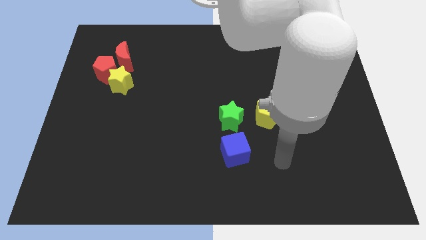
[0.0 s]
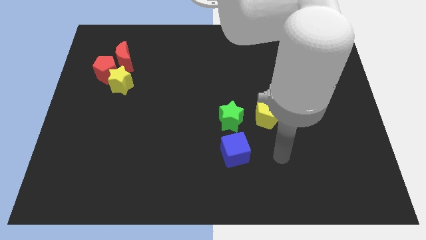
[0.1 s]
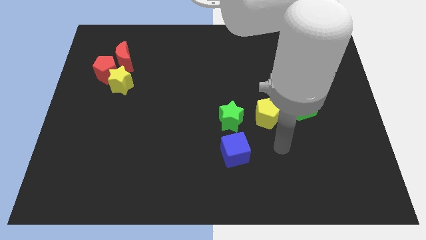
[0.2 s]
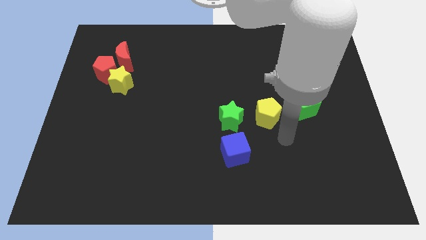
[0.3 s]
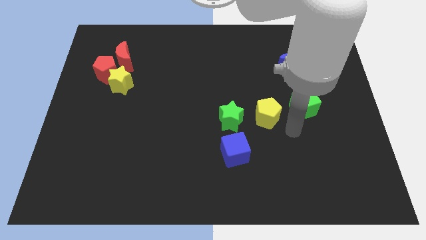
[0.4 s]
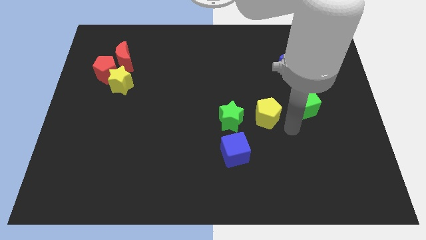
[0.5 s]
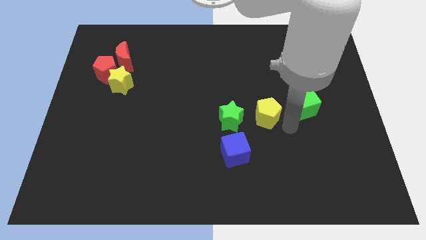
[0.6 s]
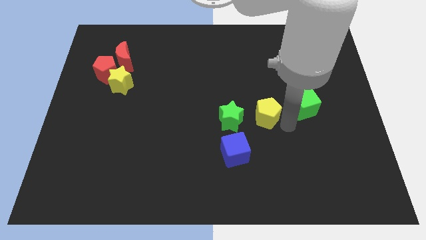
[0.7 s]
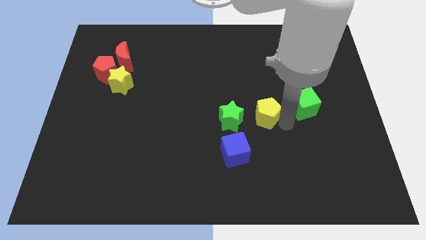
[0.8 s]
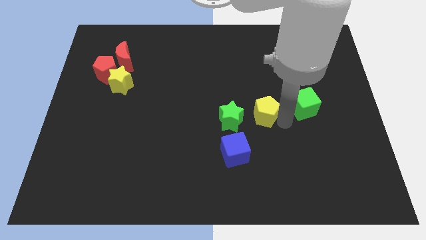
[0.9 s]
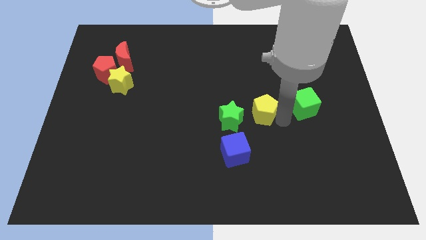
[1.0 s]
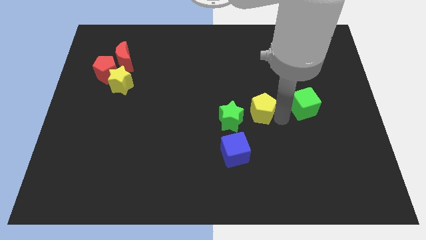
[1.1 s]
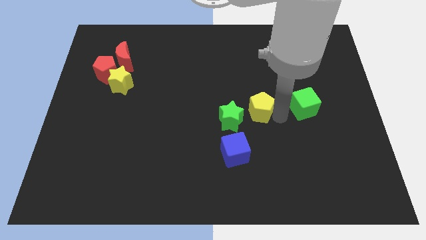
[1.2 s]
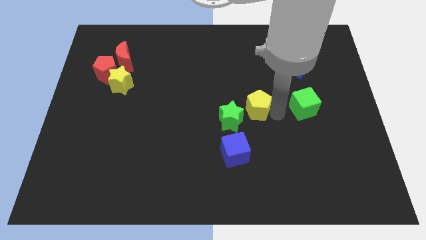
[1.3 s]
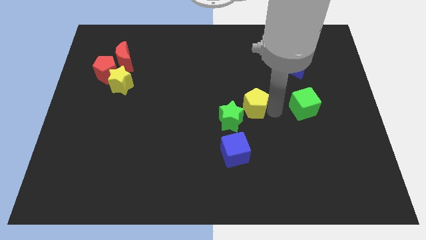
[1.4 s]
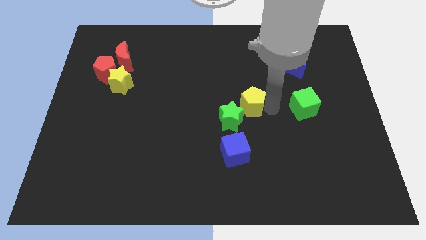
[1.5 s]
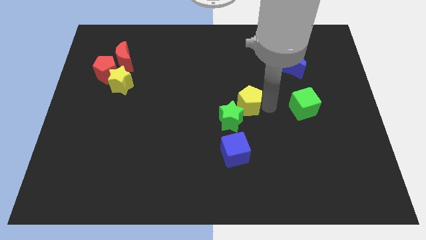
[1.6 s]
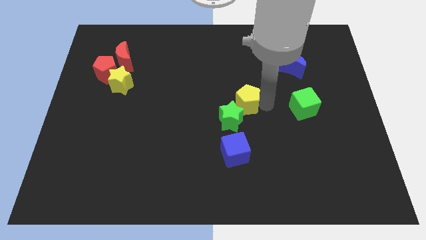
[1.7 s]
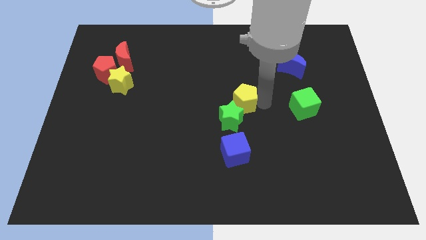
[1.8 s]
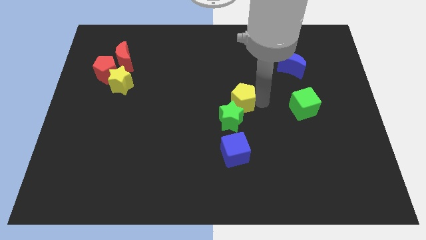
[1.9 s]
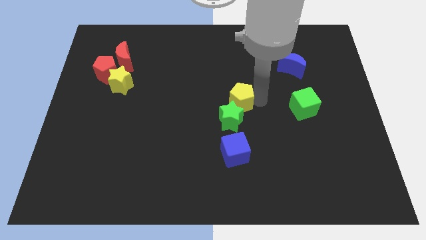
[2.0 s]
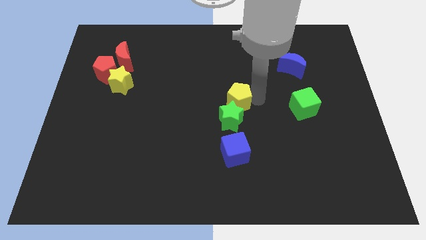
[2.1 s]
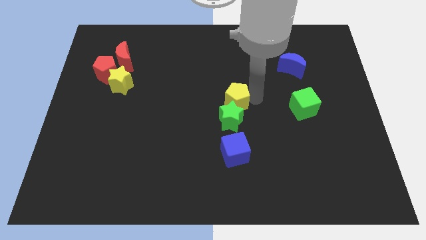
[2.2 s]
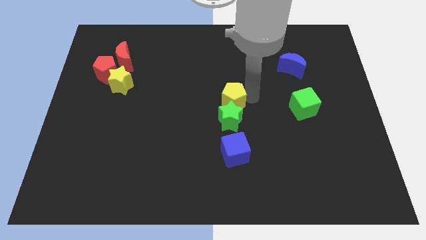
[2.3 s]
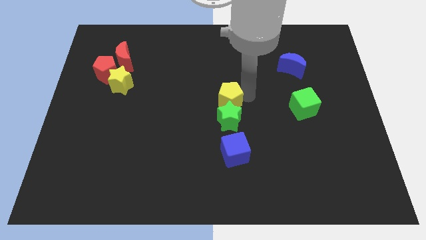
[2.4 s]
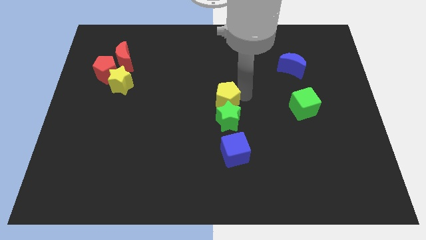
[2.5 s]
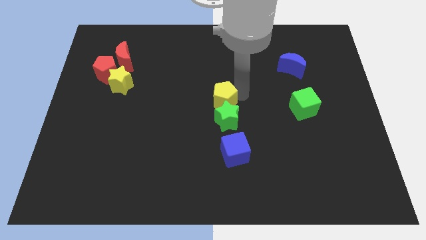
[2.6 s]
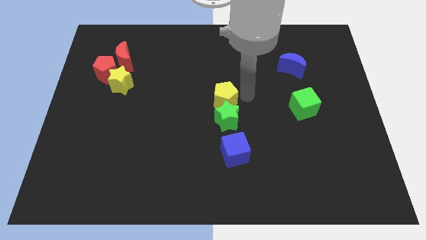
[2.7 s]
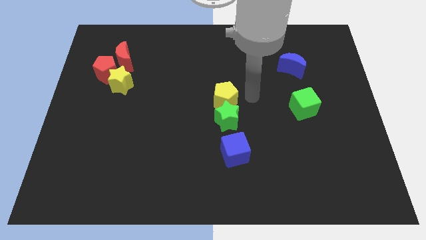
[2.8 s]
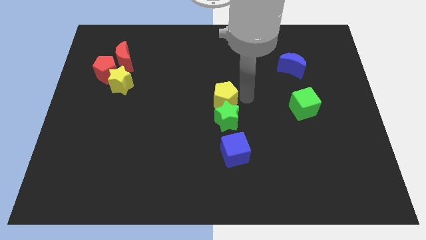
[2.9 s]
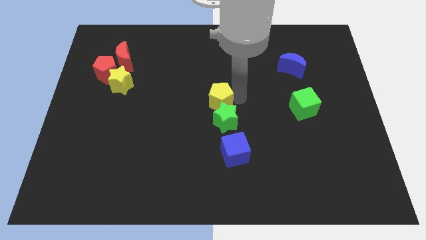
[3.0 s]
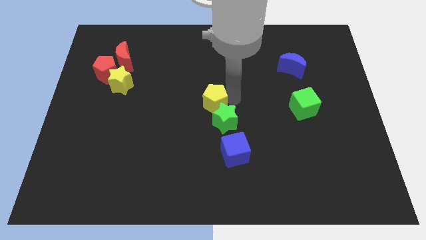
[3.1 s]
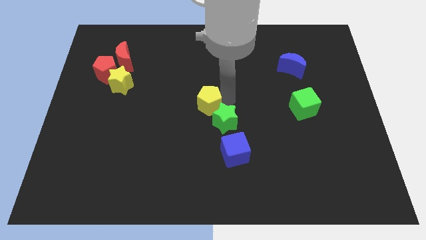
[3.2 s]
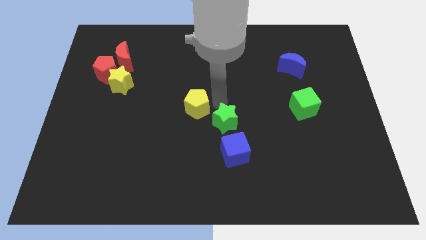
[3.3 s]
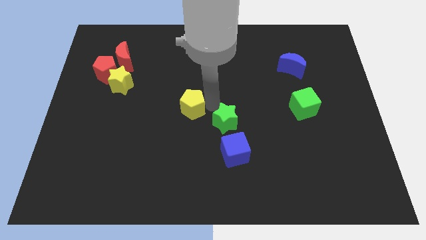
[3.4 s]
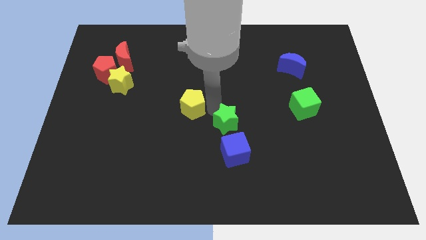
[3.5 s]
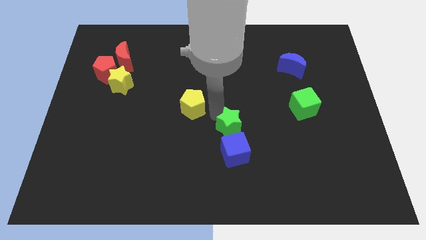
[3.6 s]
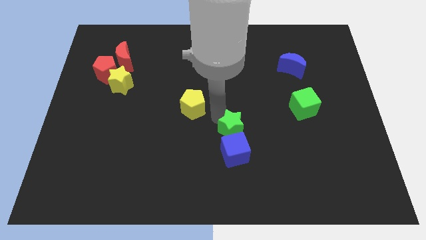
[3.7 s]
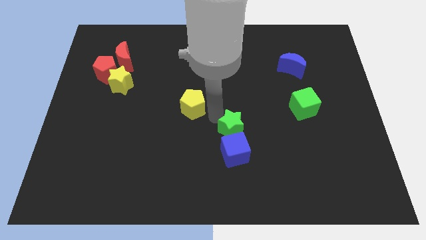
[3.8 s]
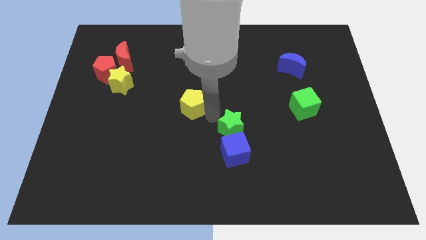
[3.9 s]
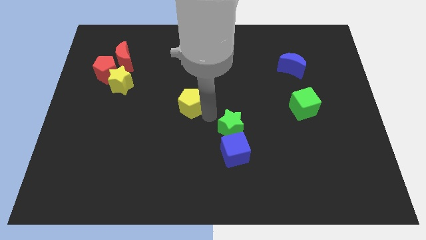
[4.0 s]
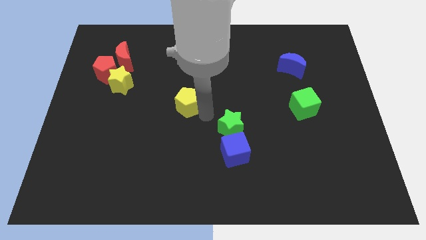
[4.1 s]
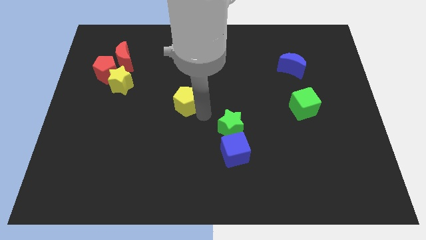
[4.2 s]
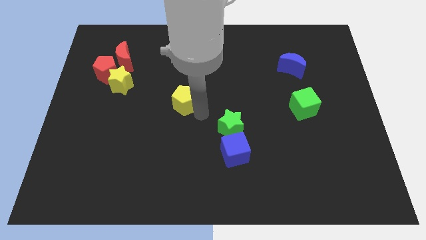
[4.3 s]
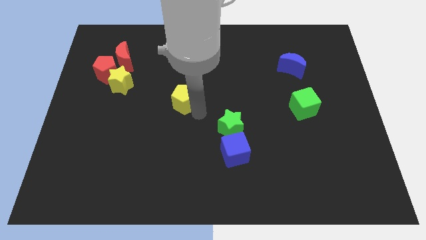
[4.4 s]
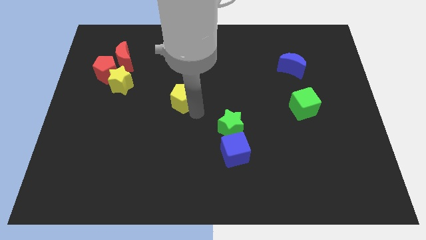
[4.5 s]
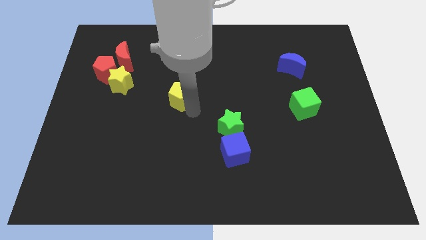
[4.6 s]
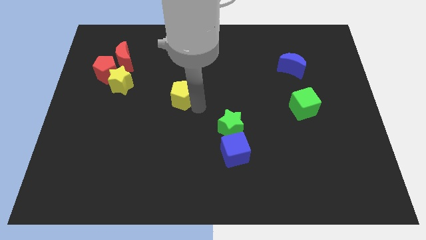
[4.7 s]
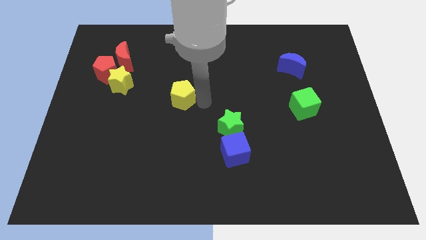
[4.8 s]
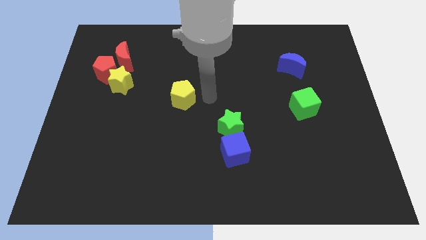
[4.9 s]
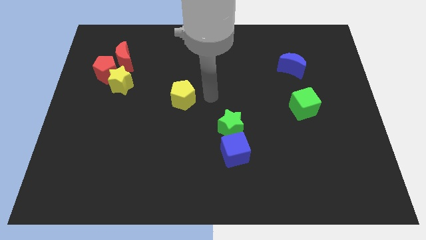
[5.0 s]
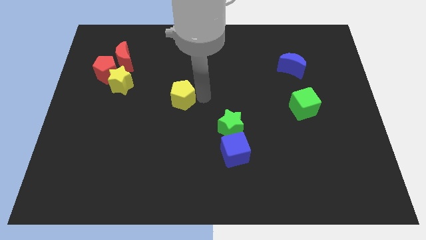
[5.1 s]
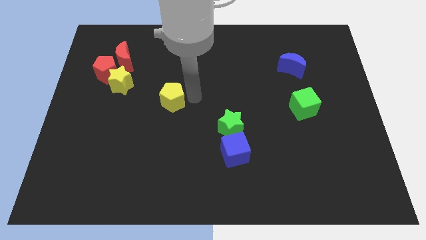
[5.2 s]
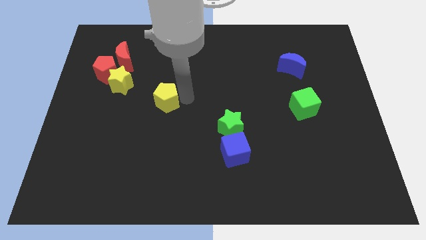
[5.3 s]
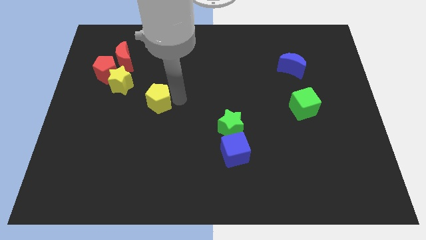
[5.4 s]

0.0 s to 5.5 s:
slide the yellow pentagon to the bottom right of the yellow star

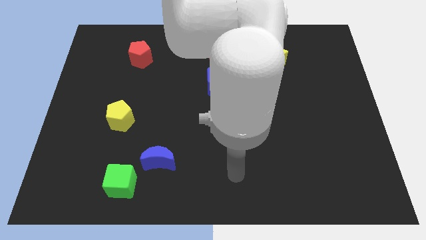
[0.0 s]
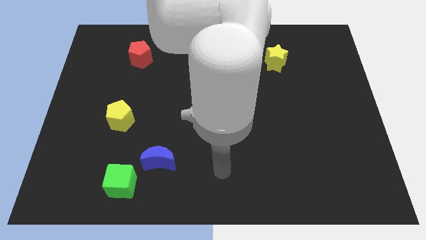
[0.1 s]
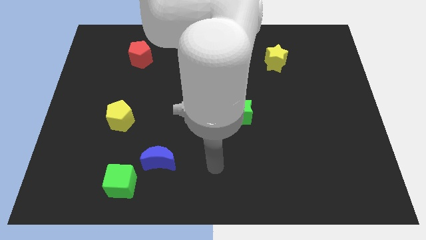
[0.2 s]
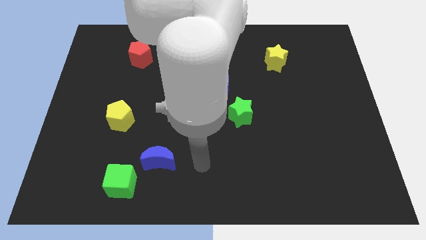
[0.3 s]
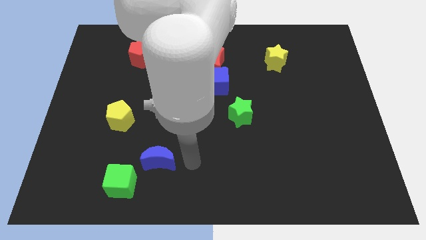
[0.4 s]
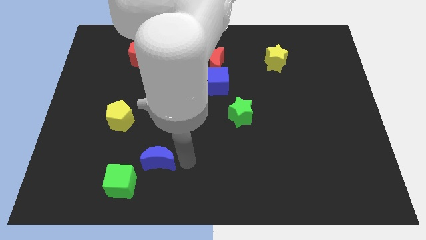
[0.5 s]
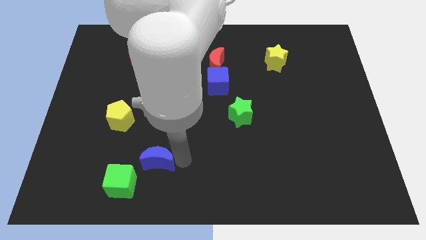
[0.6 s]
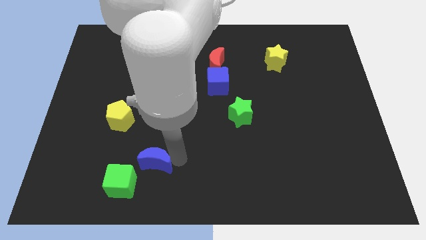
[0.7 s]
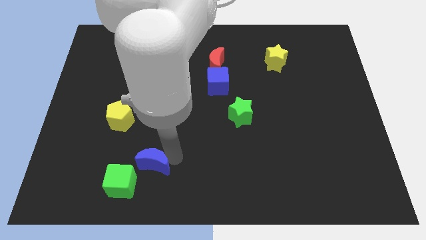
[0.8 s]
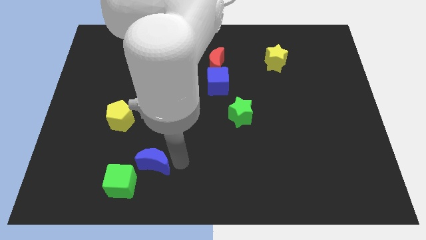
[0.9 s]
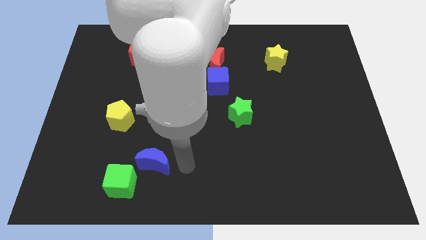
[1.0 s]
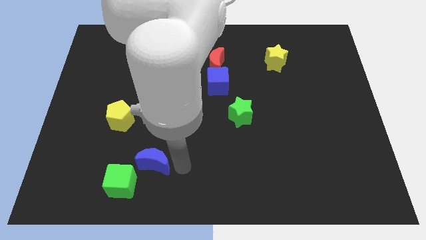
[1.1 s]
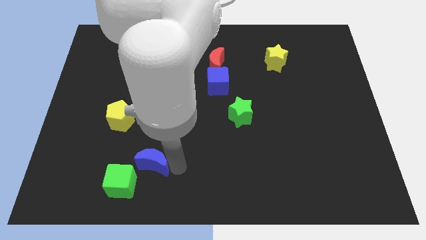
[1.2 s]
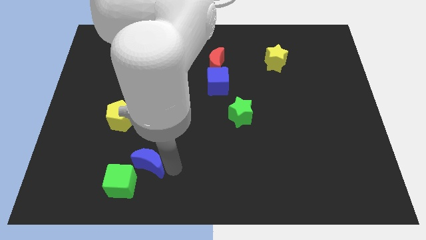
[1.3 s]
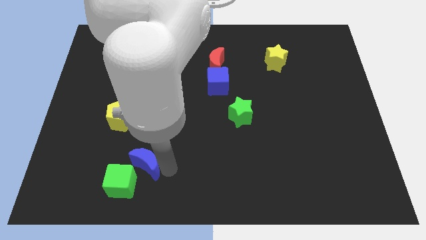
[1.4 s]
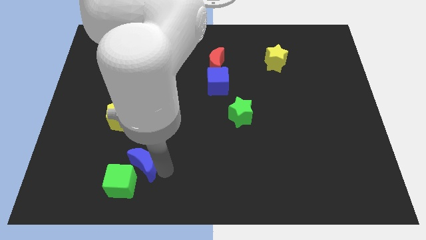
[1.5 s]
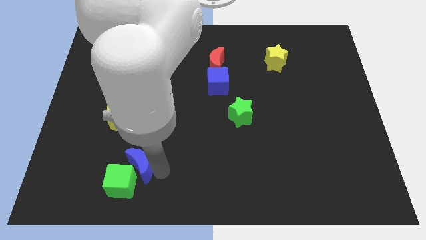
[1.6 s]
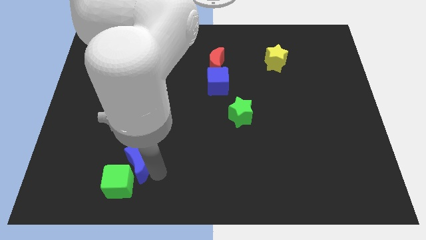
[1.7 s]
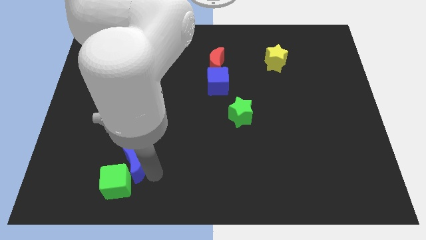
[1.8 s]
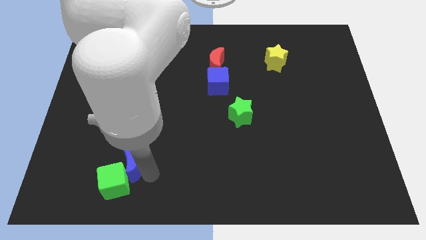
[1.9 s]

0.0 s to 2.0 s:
push the blue moon to the bottom of the yellow pentagon
